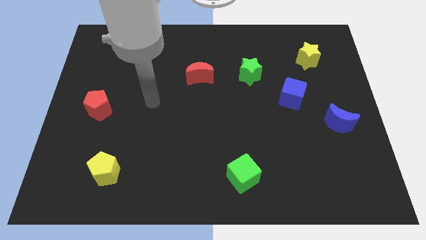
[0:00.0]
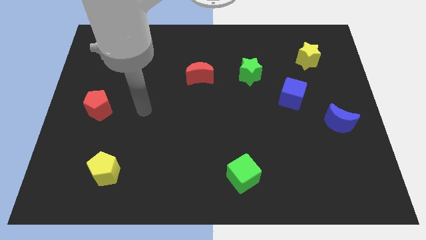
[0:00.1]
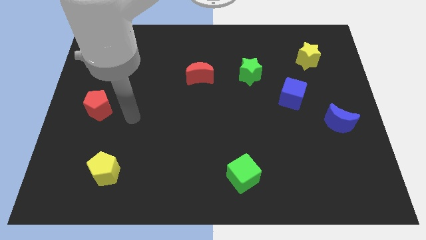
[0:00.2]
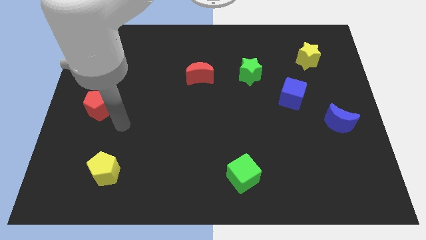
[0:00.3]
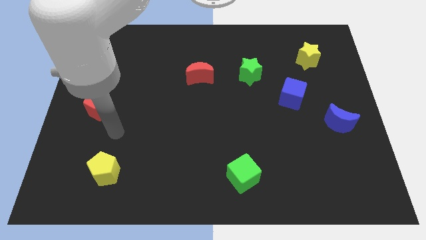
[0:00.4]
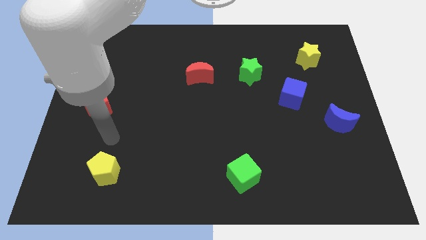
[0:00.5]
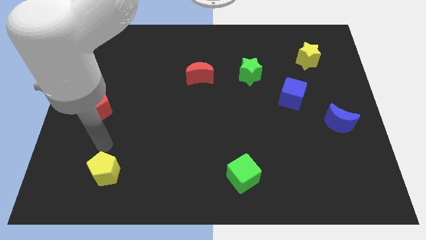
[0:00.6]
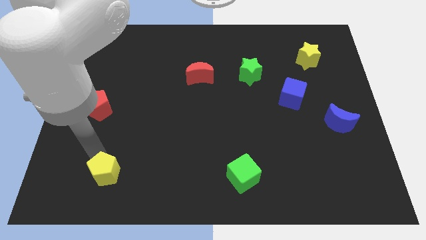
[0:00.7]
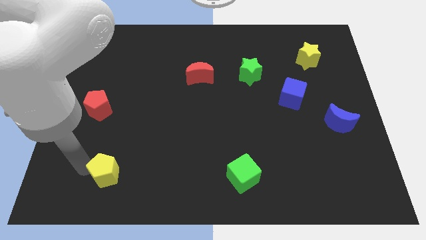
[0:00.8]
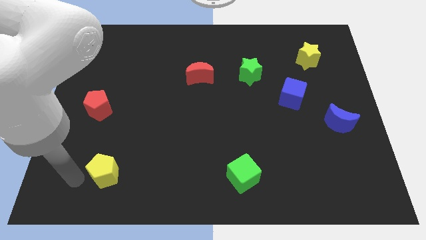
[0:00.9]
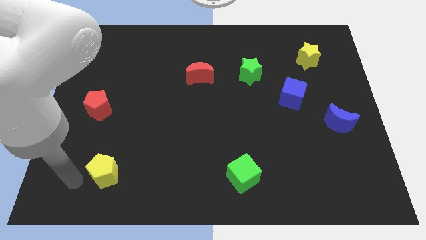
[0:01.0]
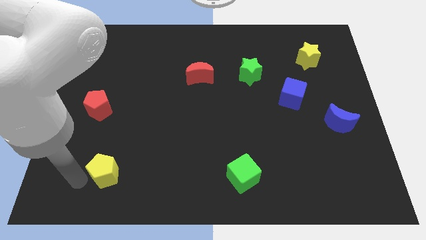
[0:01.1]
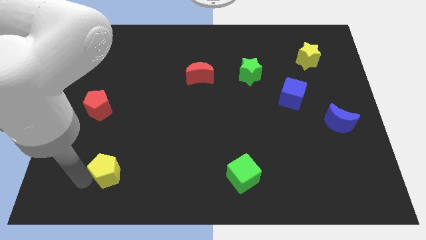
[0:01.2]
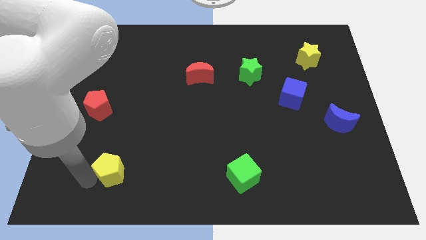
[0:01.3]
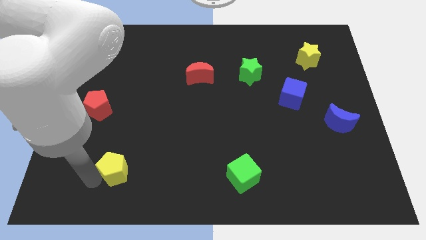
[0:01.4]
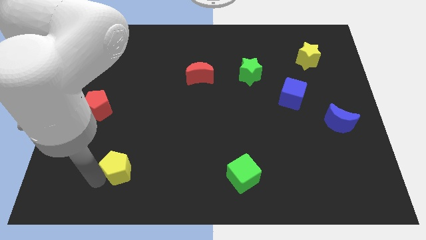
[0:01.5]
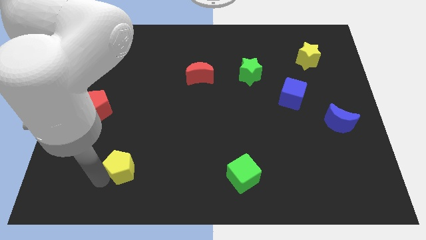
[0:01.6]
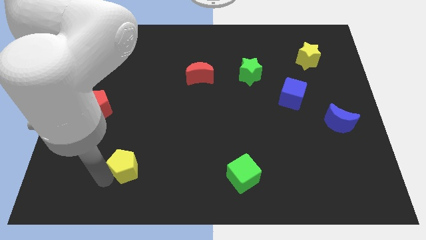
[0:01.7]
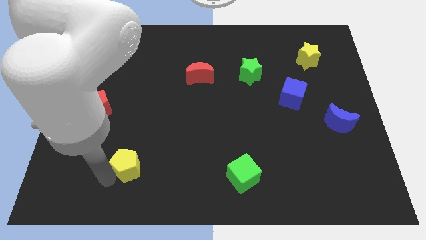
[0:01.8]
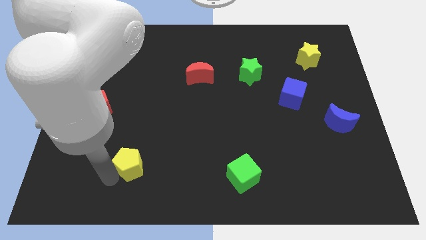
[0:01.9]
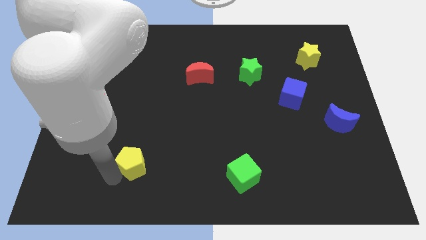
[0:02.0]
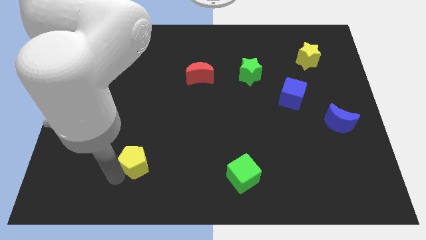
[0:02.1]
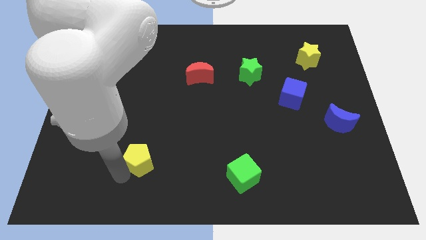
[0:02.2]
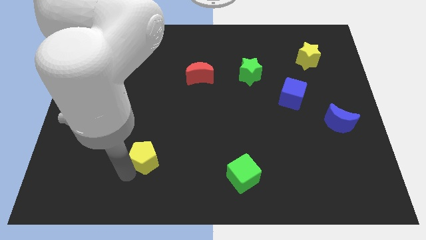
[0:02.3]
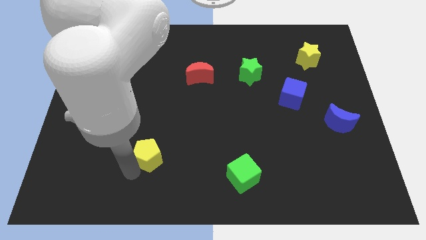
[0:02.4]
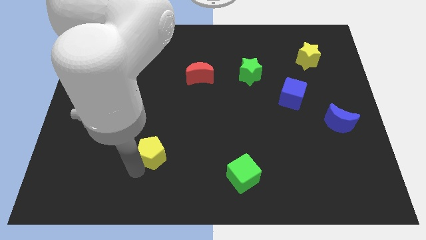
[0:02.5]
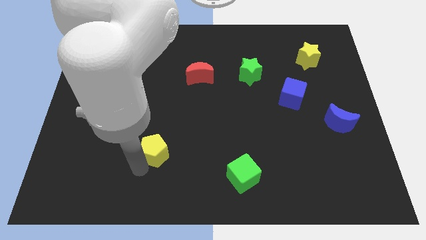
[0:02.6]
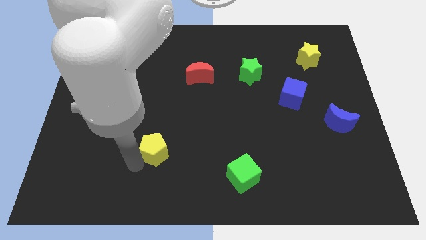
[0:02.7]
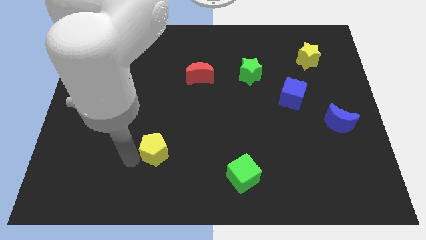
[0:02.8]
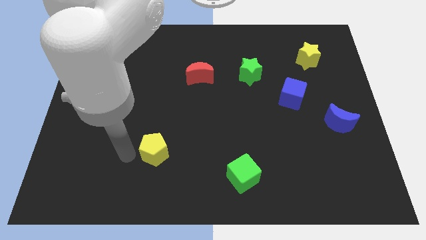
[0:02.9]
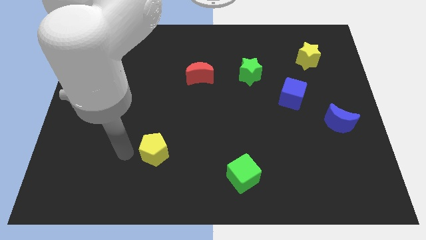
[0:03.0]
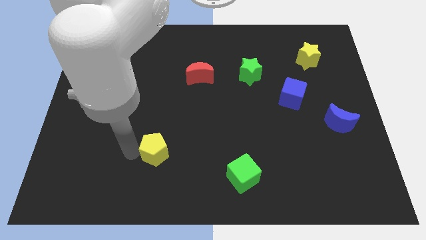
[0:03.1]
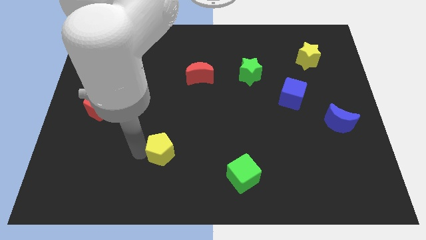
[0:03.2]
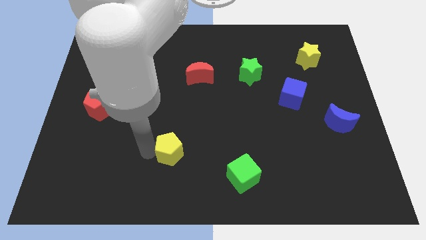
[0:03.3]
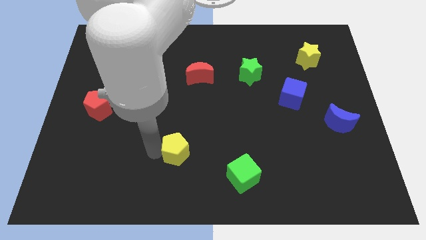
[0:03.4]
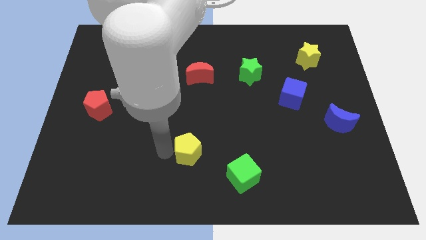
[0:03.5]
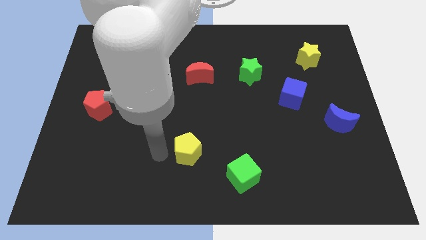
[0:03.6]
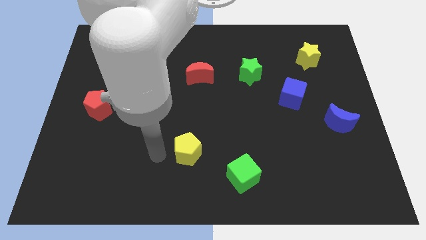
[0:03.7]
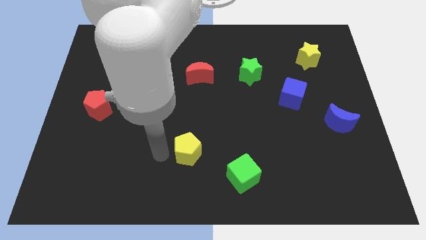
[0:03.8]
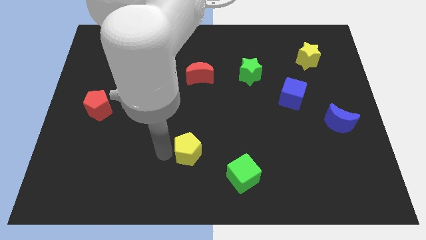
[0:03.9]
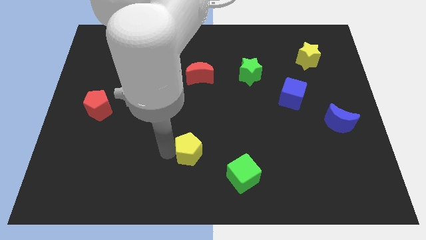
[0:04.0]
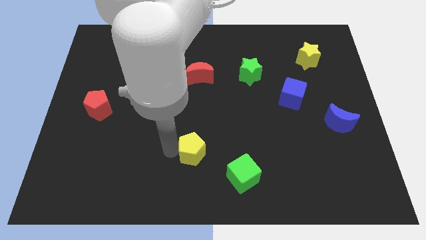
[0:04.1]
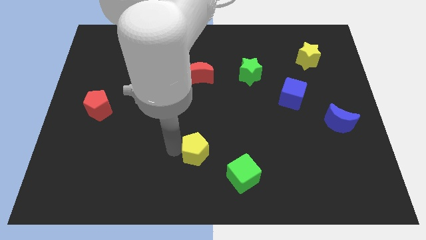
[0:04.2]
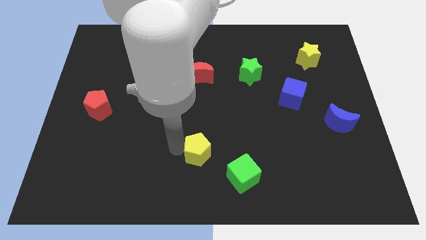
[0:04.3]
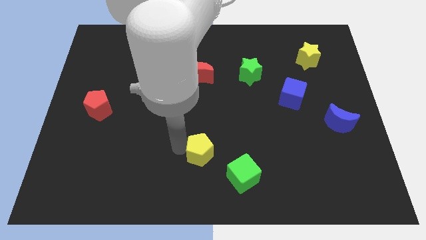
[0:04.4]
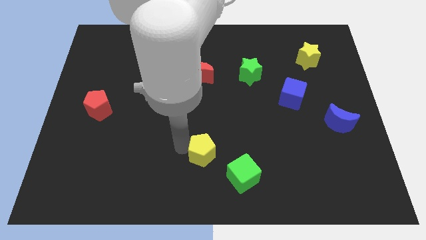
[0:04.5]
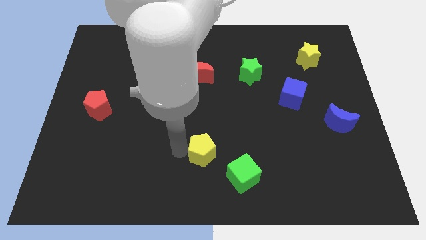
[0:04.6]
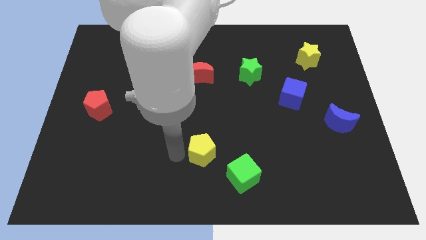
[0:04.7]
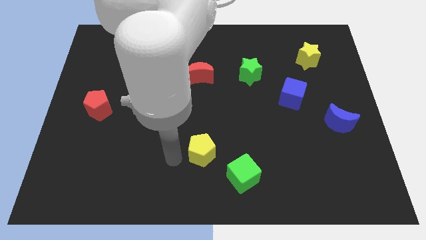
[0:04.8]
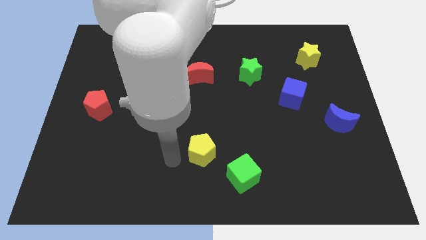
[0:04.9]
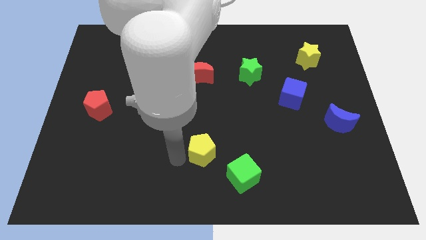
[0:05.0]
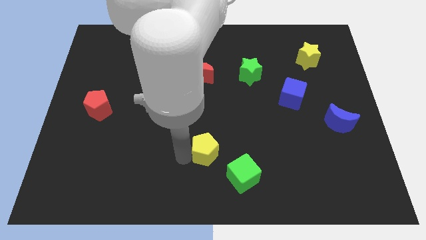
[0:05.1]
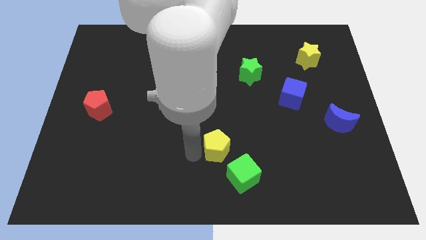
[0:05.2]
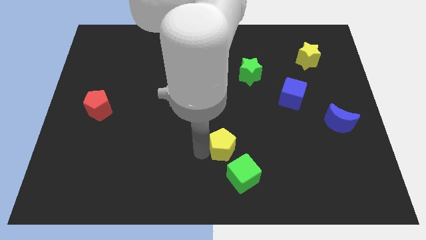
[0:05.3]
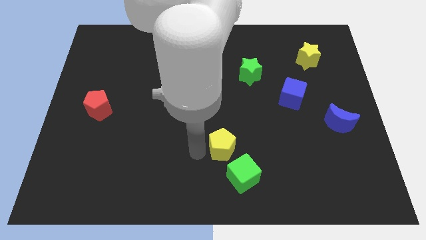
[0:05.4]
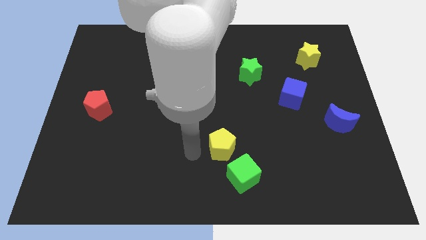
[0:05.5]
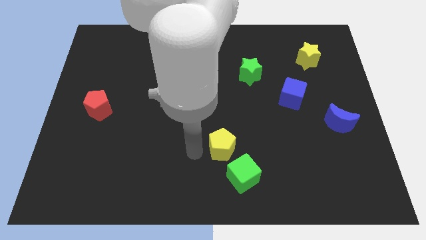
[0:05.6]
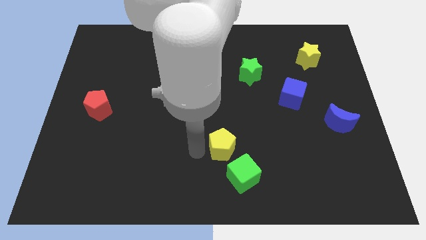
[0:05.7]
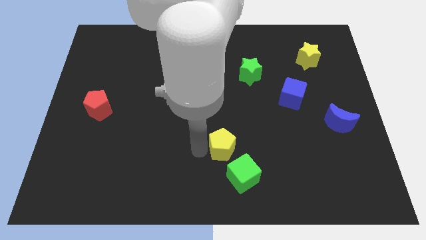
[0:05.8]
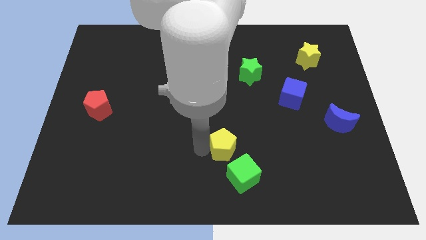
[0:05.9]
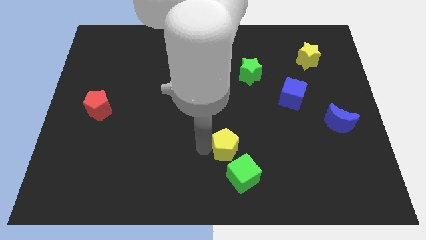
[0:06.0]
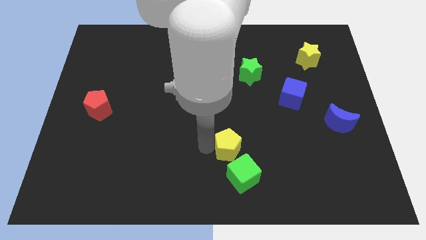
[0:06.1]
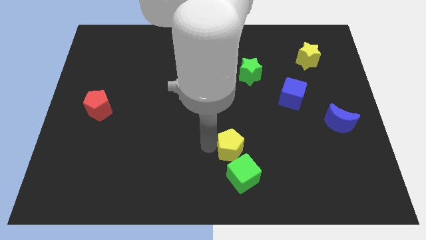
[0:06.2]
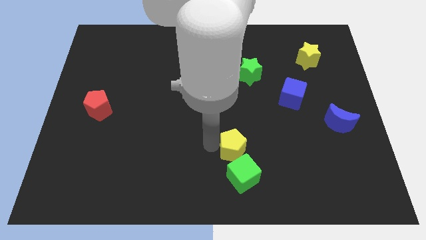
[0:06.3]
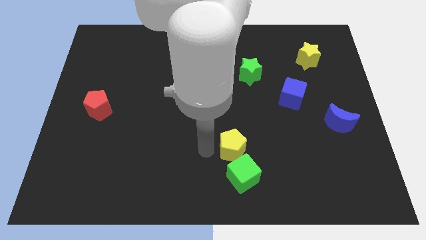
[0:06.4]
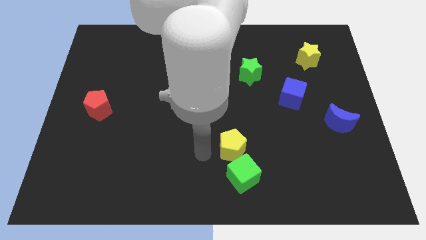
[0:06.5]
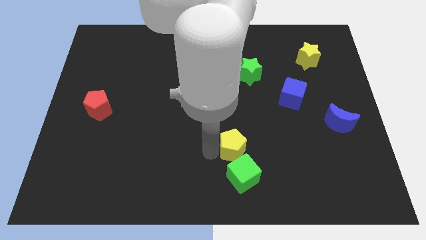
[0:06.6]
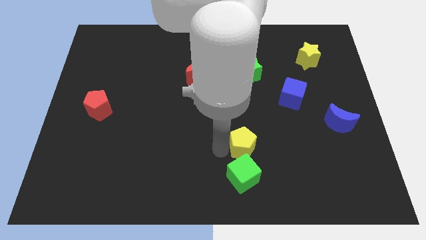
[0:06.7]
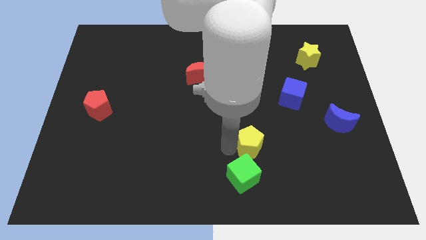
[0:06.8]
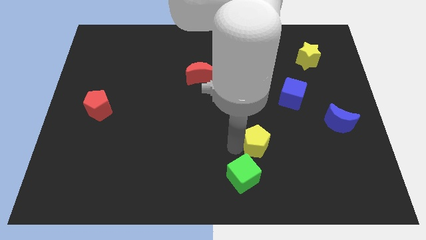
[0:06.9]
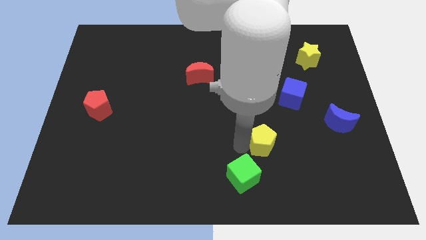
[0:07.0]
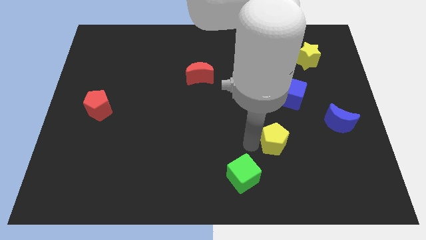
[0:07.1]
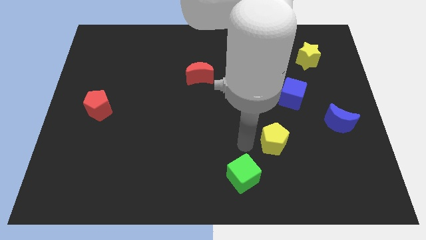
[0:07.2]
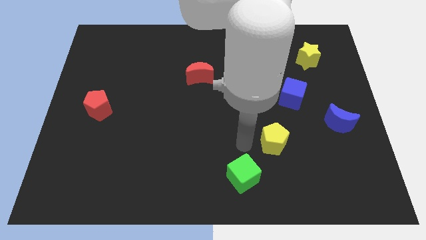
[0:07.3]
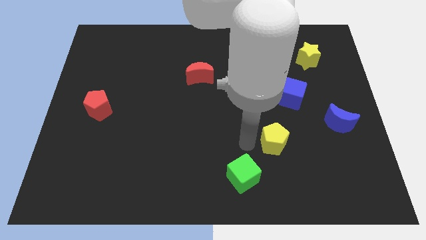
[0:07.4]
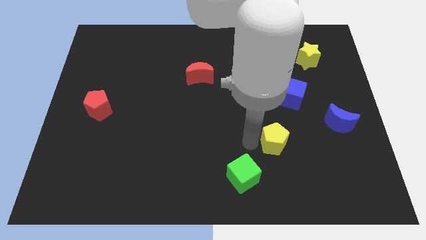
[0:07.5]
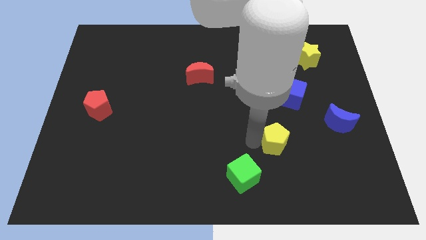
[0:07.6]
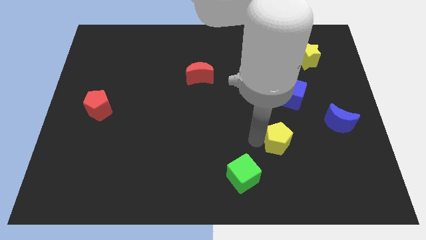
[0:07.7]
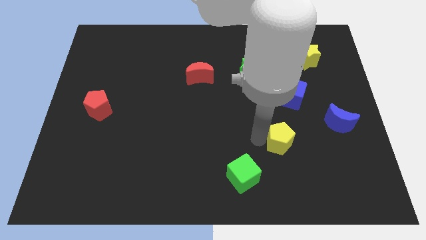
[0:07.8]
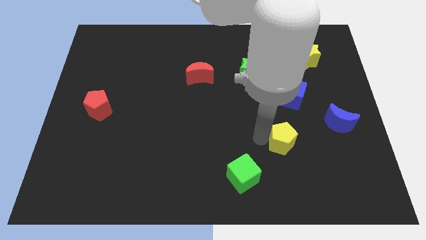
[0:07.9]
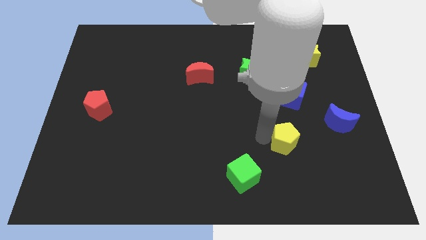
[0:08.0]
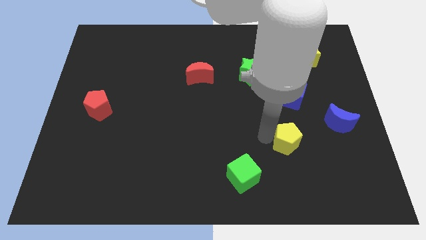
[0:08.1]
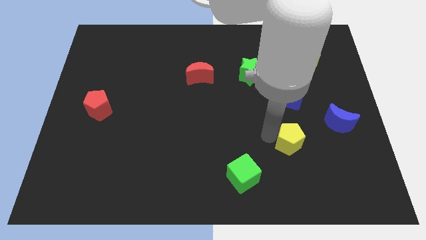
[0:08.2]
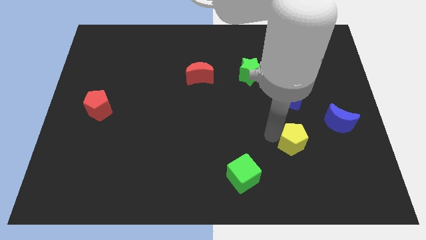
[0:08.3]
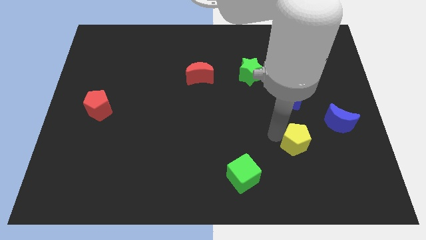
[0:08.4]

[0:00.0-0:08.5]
move the yellow pentagon to the bottom left side of the blue moon
